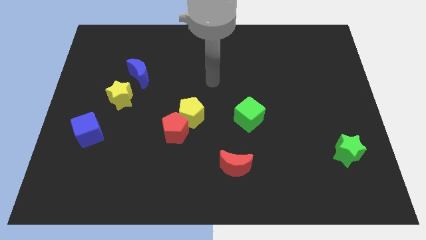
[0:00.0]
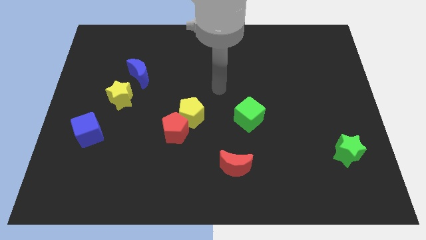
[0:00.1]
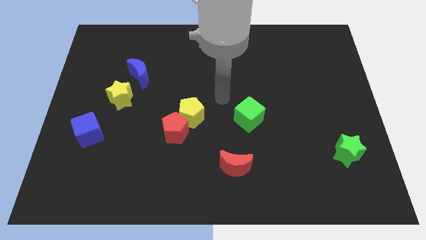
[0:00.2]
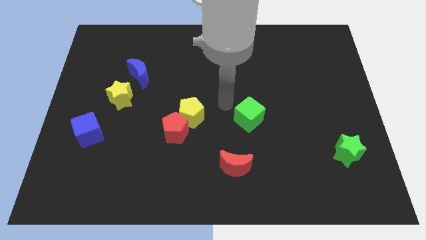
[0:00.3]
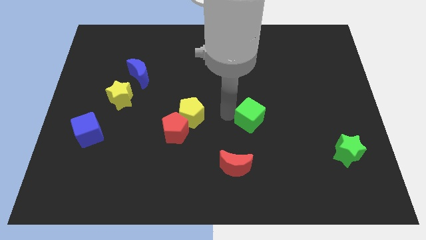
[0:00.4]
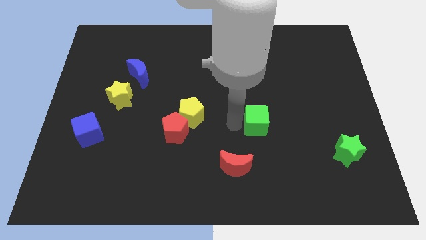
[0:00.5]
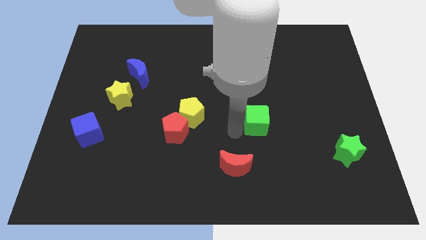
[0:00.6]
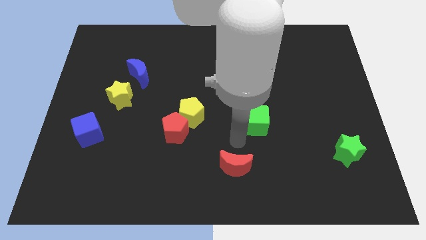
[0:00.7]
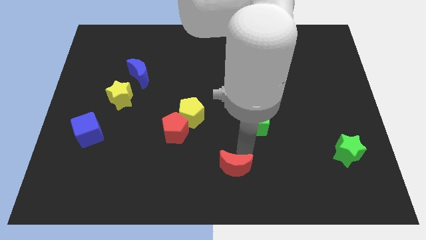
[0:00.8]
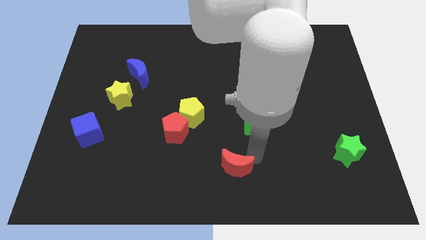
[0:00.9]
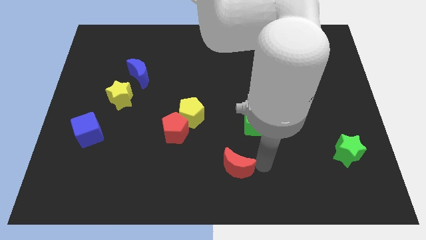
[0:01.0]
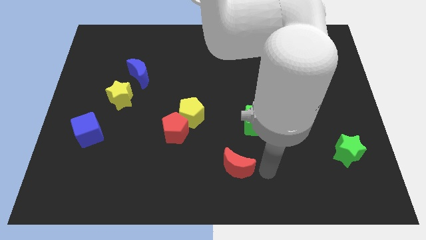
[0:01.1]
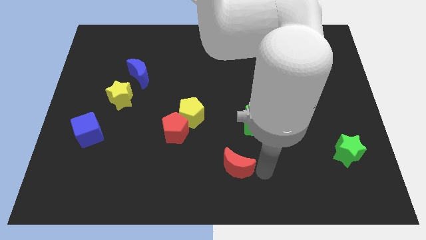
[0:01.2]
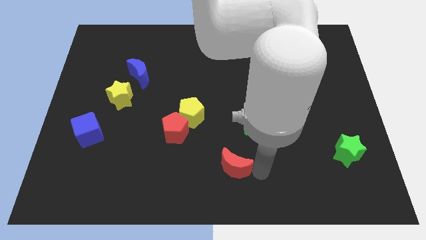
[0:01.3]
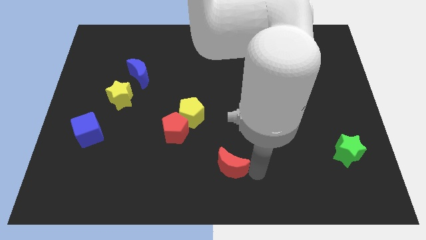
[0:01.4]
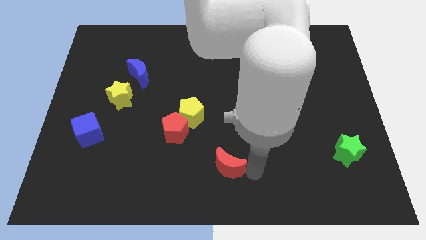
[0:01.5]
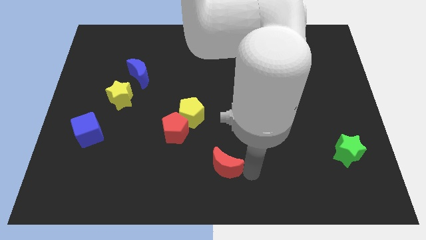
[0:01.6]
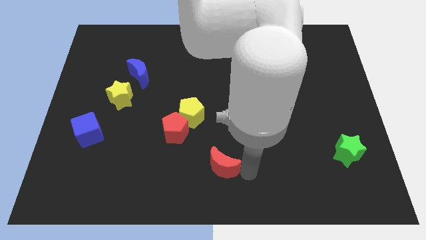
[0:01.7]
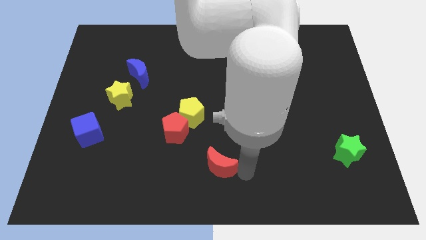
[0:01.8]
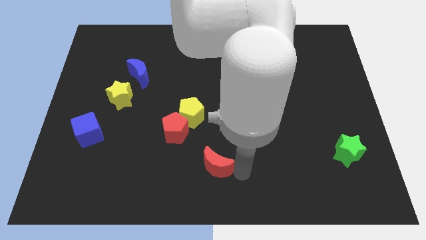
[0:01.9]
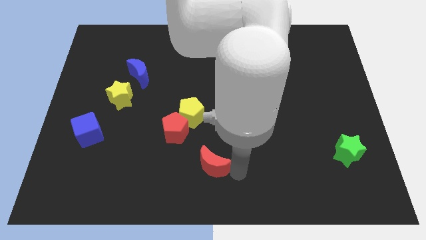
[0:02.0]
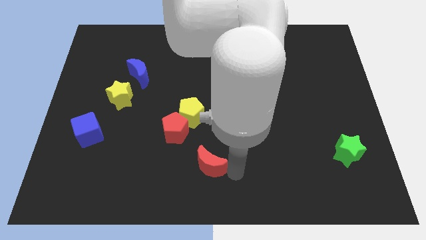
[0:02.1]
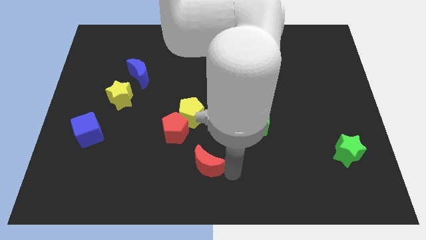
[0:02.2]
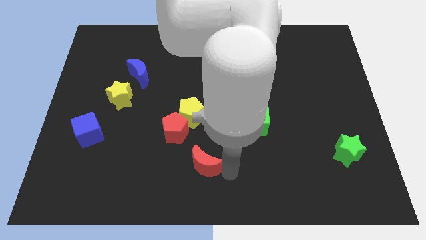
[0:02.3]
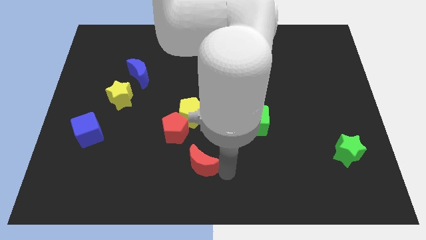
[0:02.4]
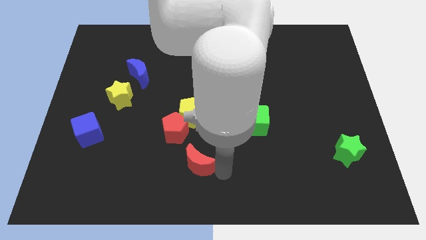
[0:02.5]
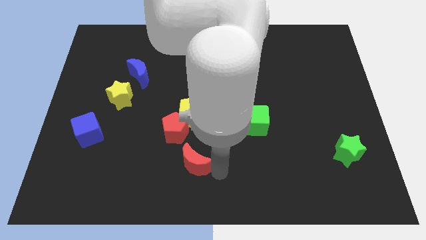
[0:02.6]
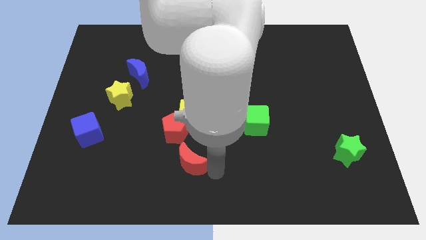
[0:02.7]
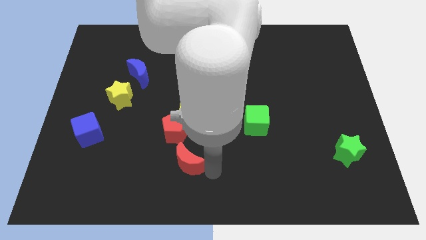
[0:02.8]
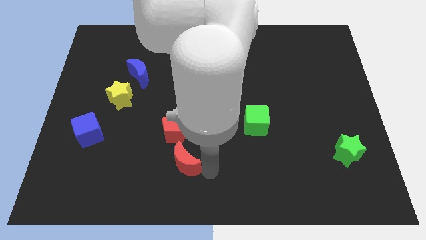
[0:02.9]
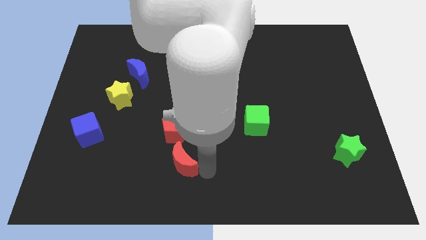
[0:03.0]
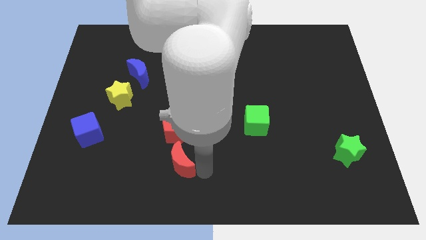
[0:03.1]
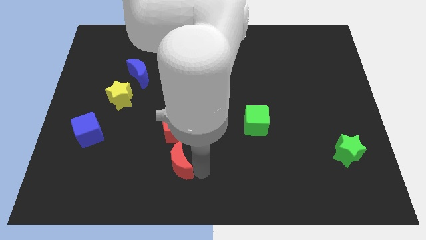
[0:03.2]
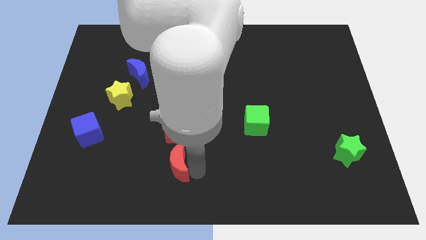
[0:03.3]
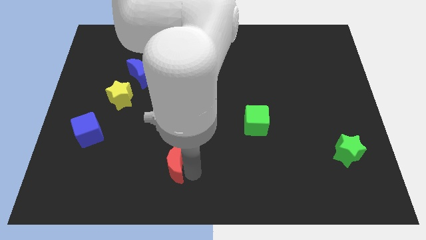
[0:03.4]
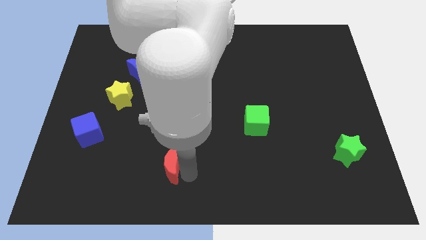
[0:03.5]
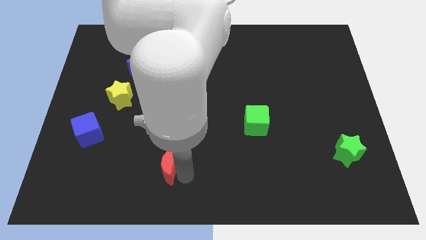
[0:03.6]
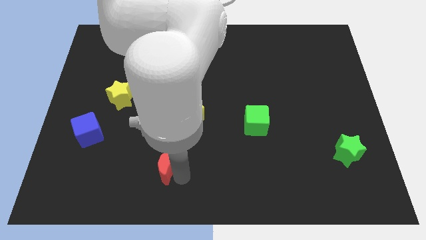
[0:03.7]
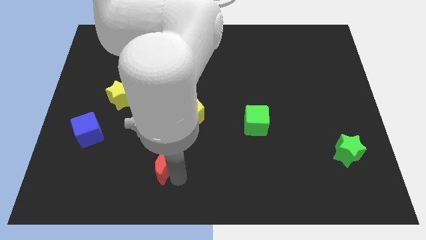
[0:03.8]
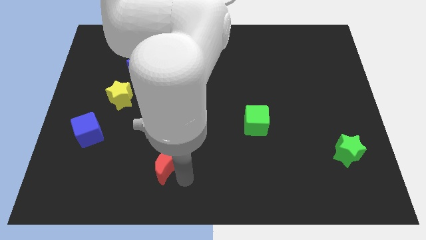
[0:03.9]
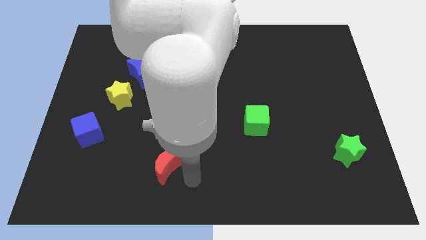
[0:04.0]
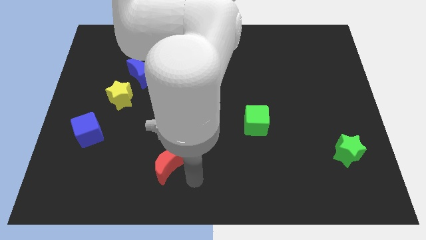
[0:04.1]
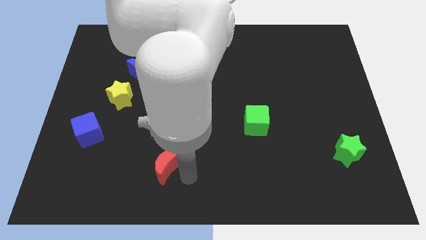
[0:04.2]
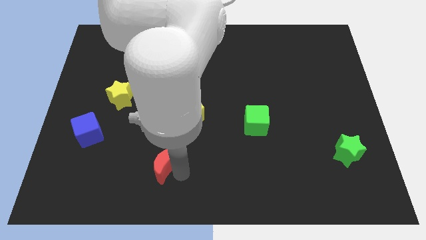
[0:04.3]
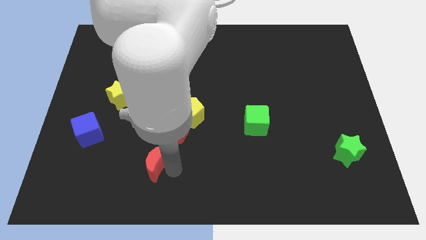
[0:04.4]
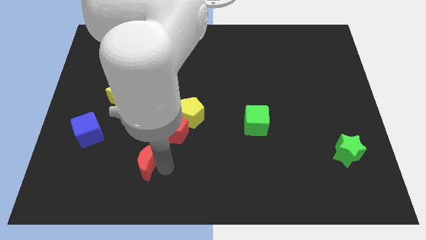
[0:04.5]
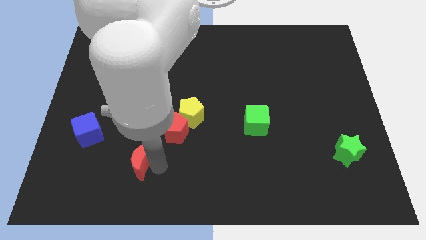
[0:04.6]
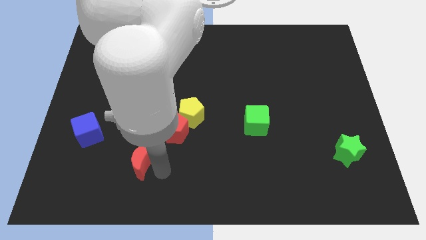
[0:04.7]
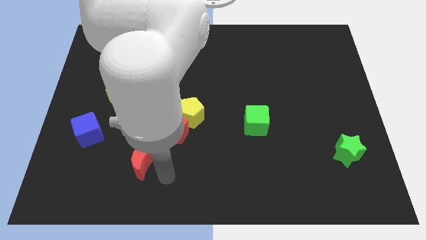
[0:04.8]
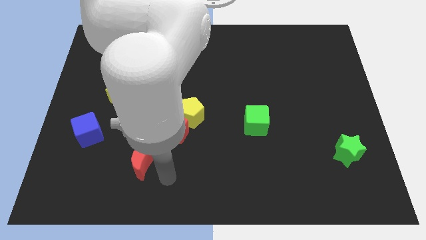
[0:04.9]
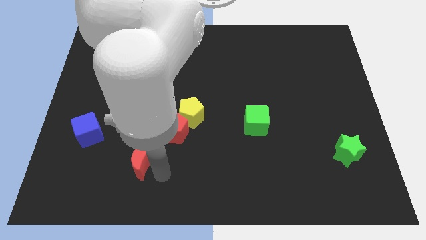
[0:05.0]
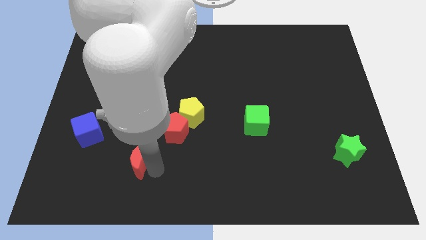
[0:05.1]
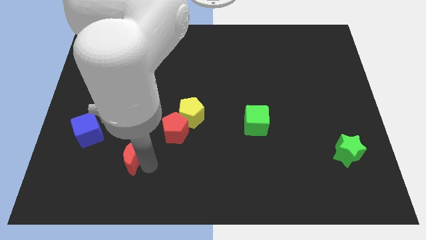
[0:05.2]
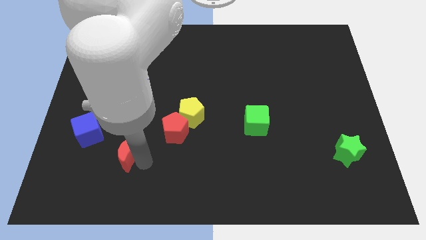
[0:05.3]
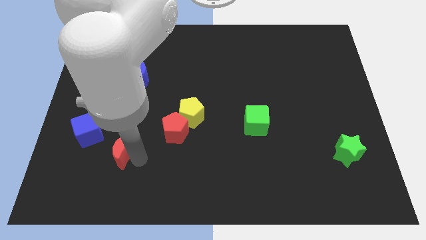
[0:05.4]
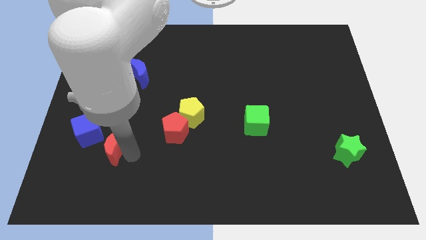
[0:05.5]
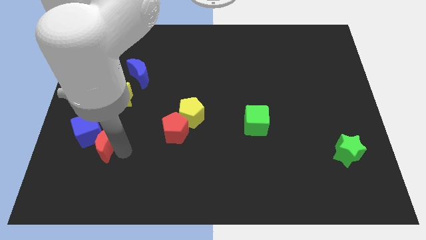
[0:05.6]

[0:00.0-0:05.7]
move the red moon to the blue cube

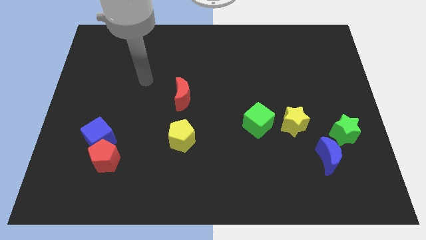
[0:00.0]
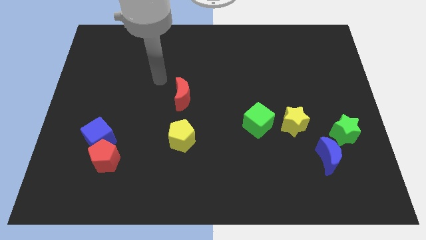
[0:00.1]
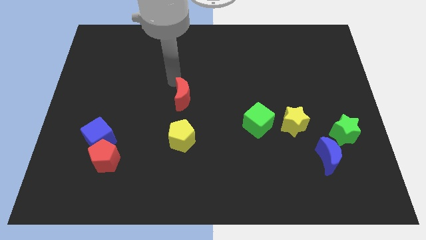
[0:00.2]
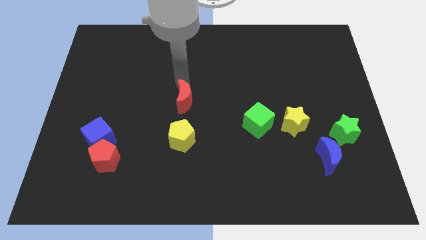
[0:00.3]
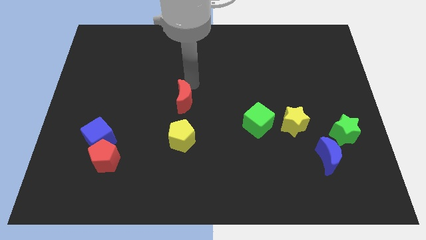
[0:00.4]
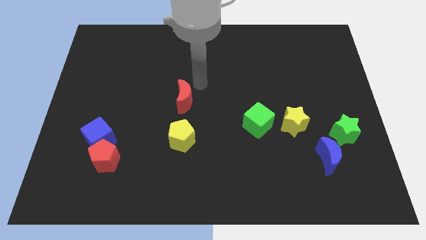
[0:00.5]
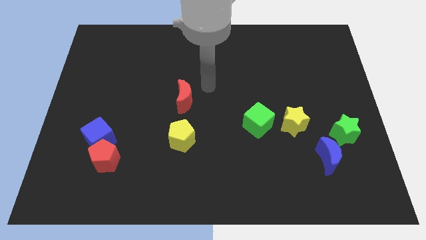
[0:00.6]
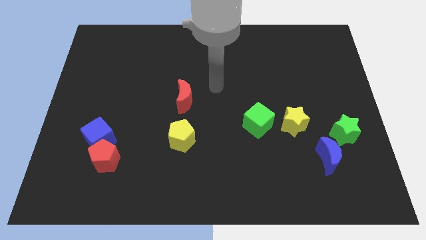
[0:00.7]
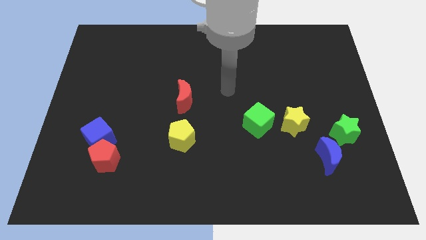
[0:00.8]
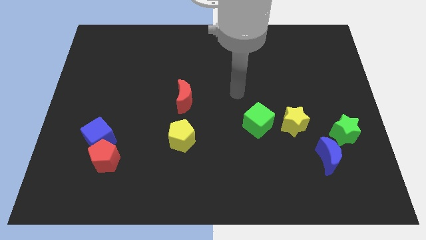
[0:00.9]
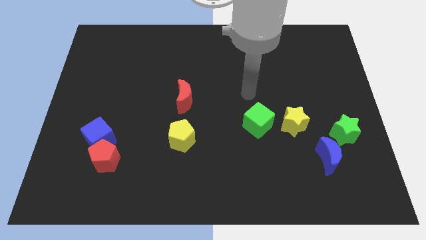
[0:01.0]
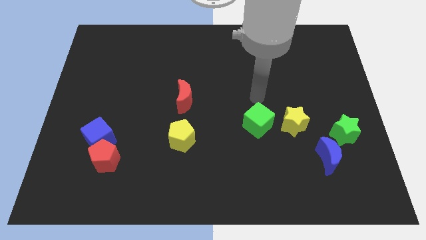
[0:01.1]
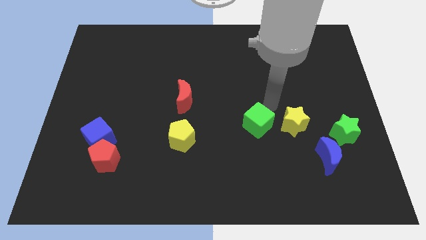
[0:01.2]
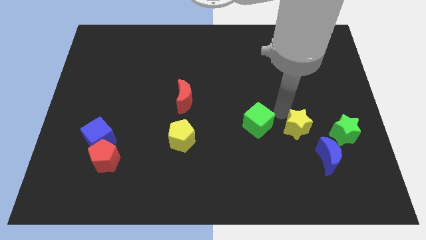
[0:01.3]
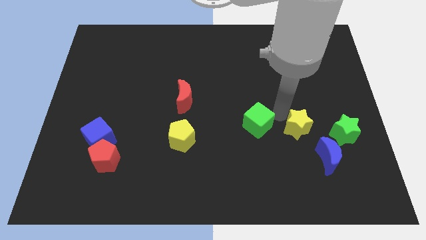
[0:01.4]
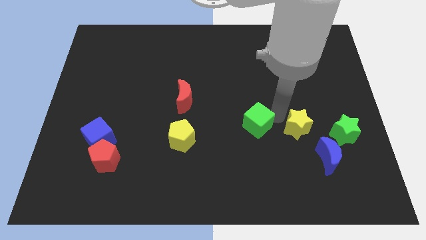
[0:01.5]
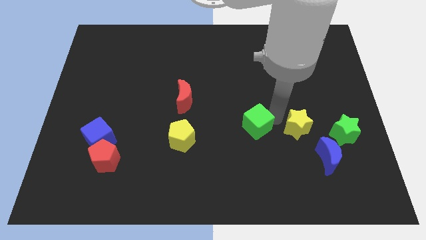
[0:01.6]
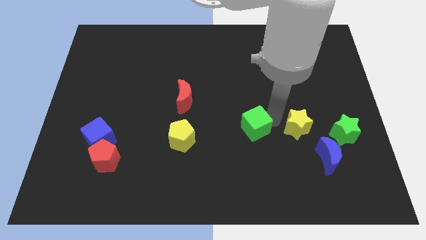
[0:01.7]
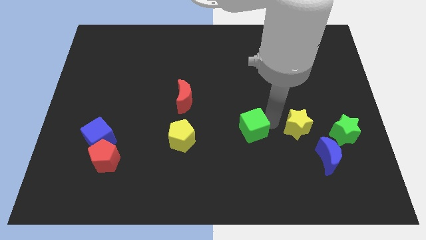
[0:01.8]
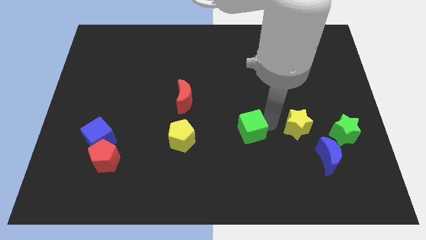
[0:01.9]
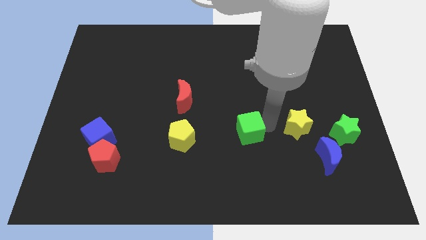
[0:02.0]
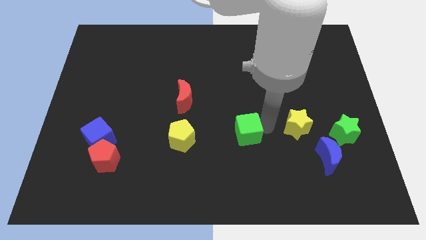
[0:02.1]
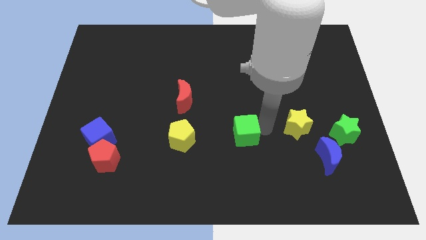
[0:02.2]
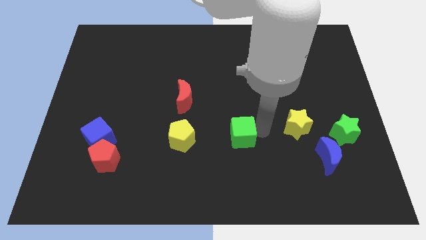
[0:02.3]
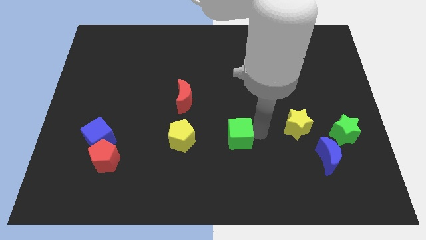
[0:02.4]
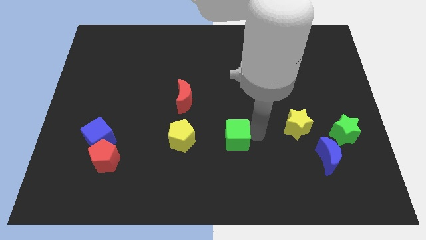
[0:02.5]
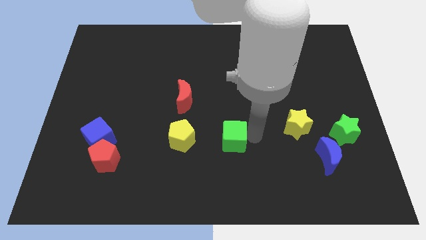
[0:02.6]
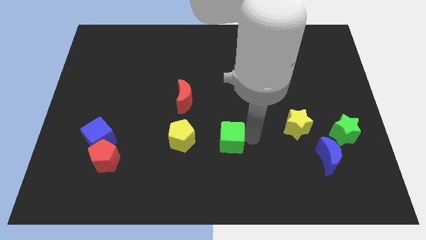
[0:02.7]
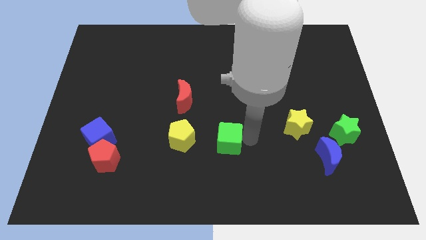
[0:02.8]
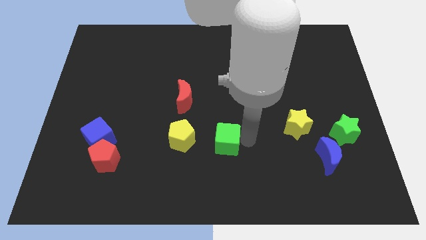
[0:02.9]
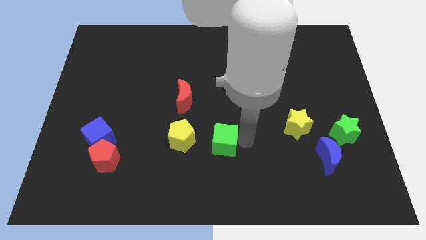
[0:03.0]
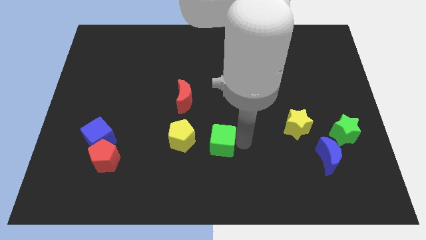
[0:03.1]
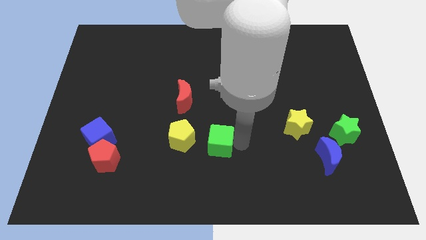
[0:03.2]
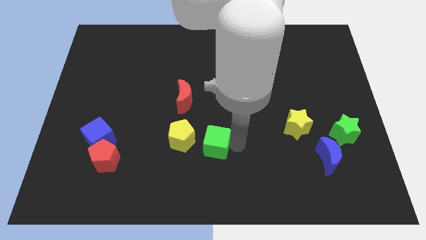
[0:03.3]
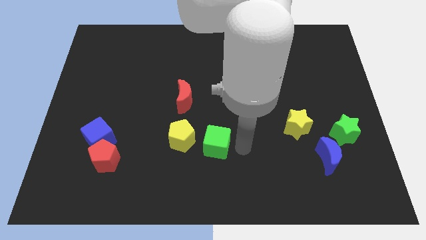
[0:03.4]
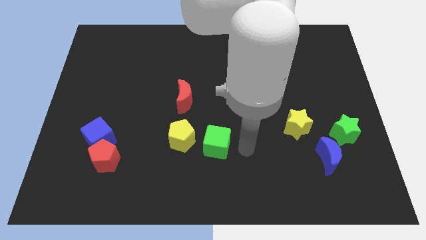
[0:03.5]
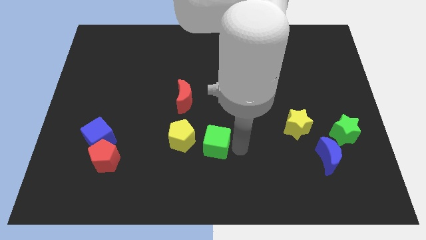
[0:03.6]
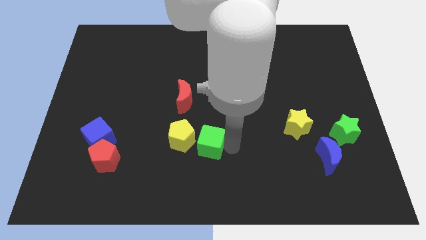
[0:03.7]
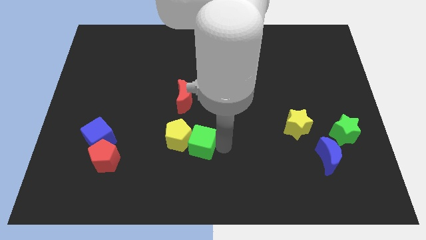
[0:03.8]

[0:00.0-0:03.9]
push the green cube next to the yellow pentagon
